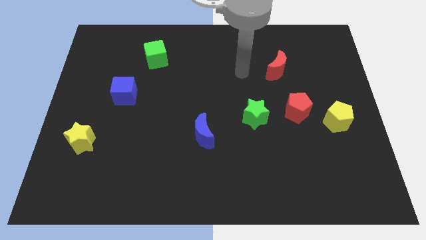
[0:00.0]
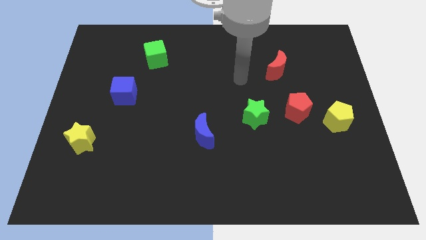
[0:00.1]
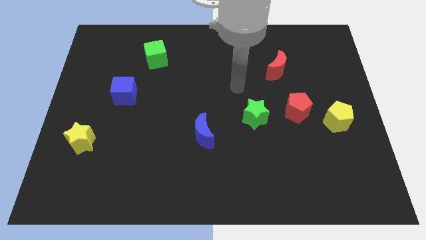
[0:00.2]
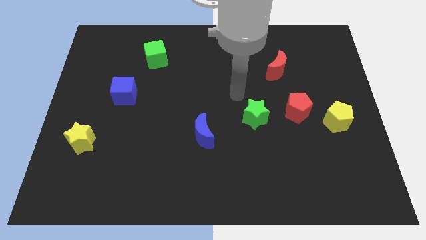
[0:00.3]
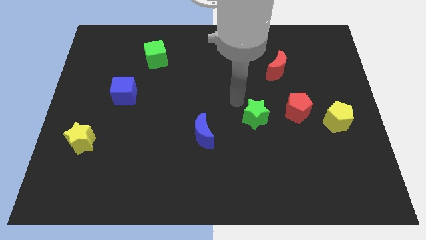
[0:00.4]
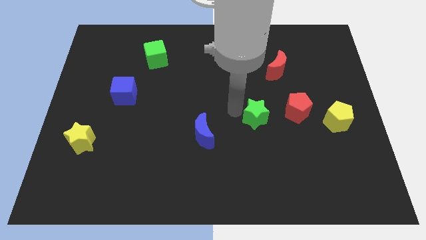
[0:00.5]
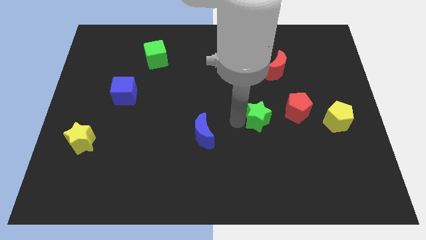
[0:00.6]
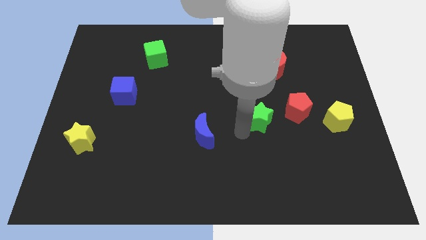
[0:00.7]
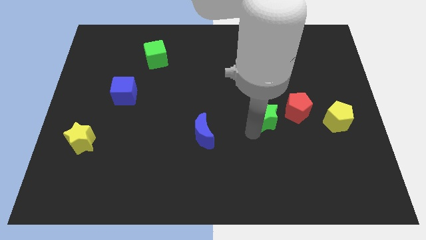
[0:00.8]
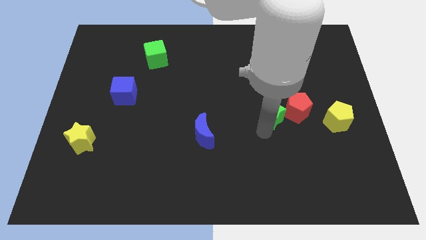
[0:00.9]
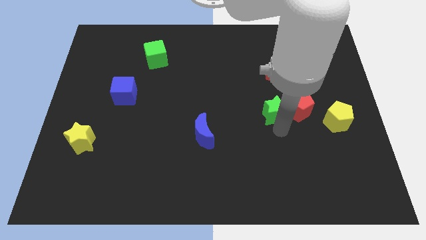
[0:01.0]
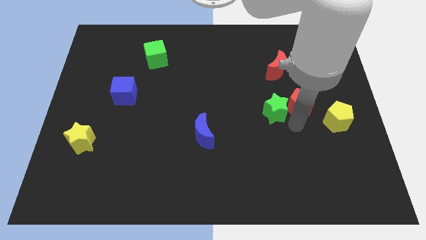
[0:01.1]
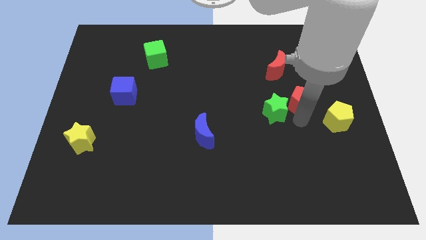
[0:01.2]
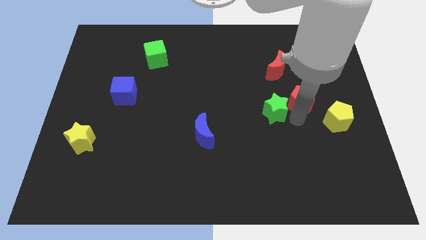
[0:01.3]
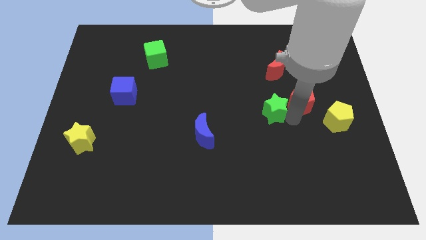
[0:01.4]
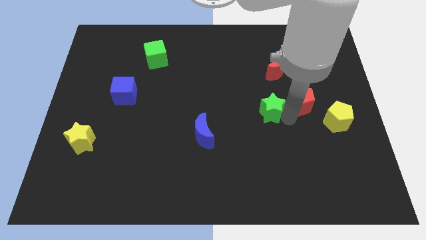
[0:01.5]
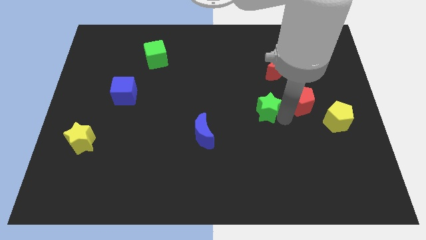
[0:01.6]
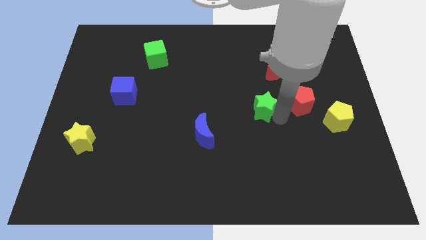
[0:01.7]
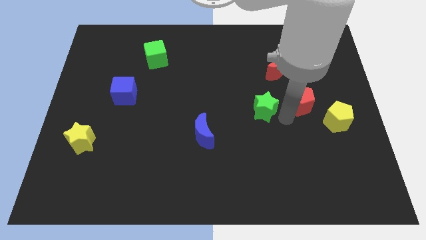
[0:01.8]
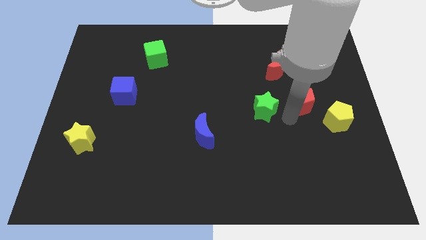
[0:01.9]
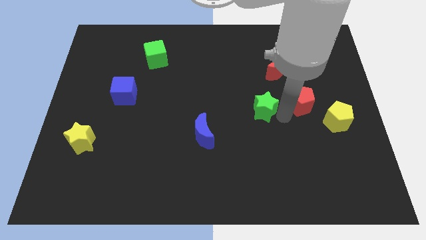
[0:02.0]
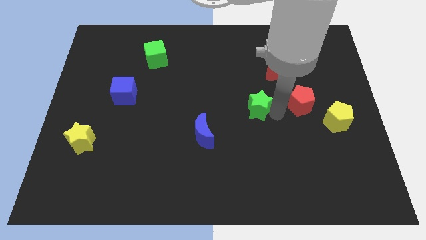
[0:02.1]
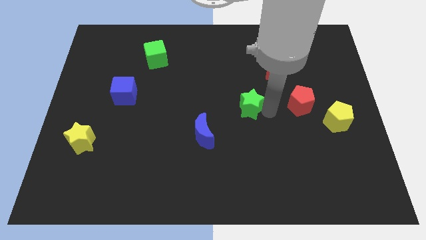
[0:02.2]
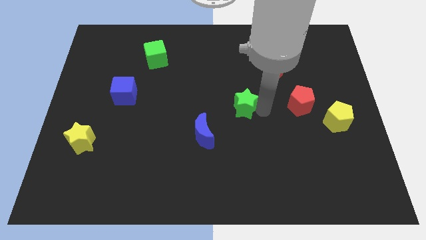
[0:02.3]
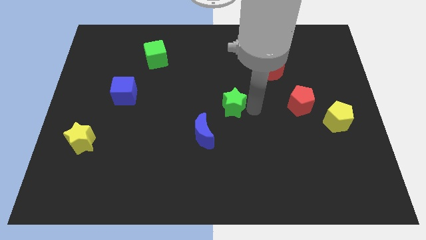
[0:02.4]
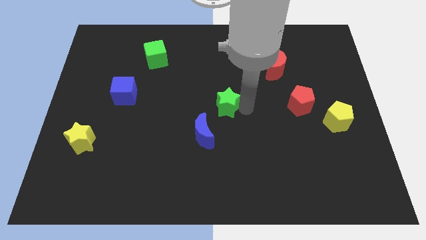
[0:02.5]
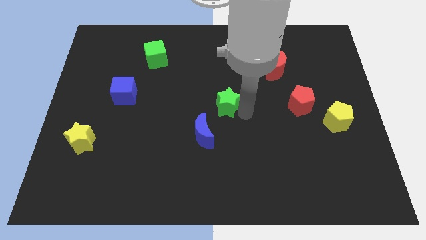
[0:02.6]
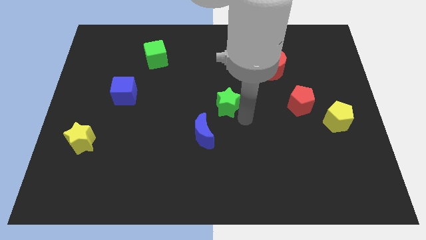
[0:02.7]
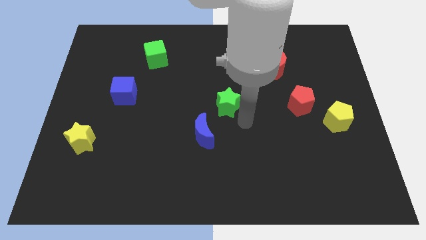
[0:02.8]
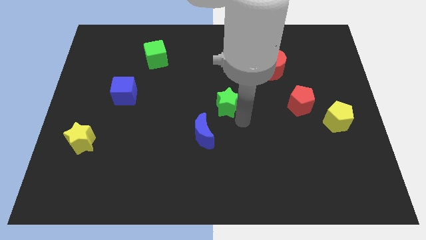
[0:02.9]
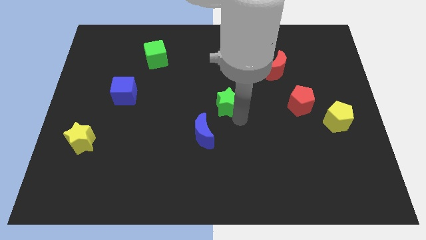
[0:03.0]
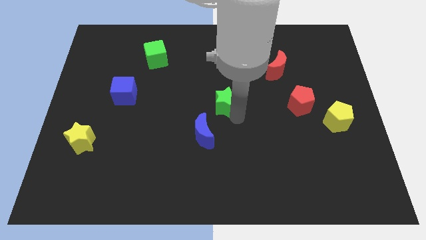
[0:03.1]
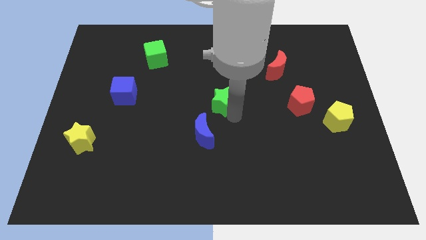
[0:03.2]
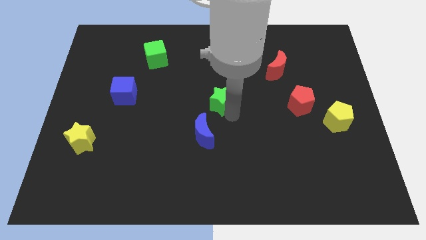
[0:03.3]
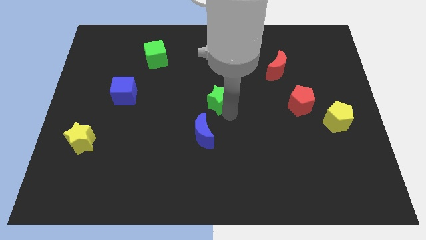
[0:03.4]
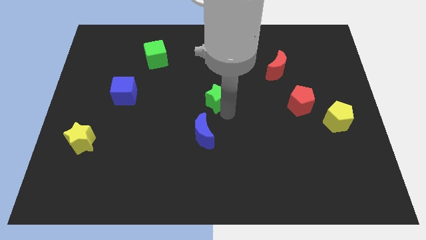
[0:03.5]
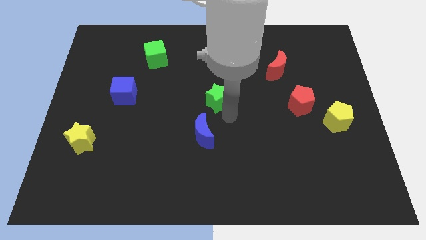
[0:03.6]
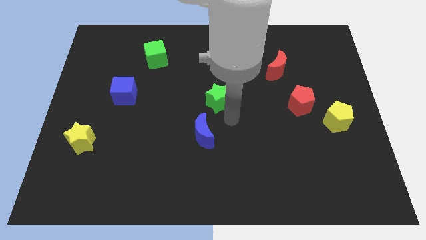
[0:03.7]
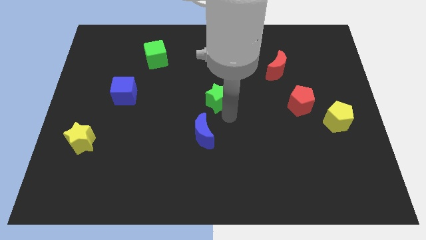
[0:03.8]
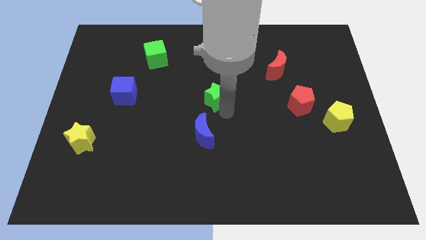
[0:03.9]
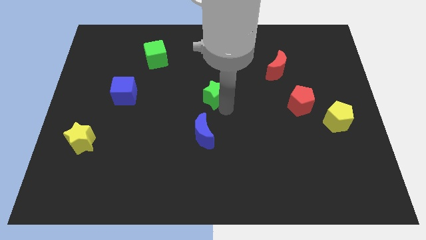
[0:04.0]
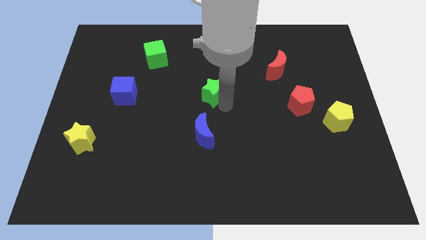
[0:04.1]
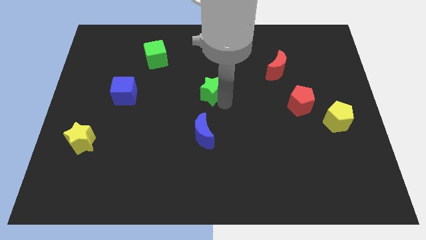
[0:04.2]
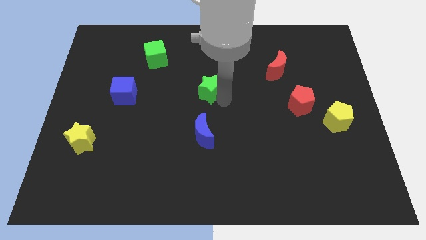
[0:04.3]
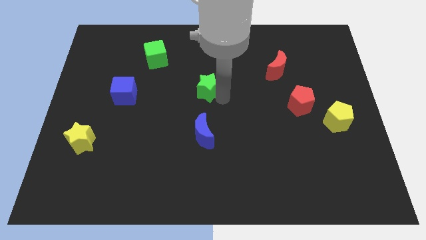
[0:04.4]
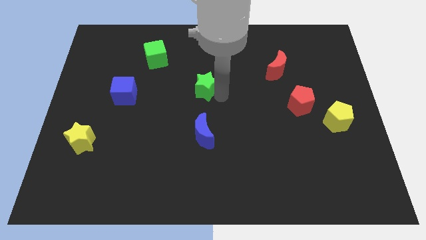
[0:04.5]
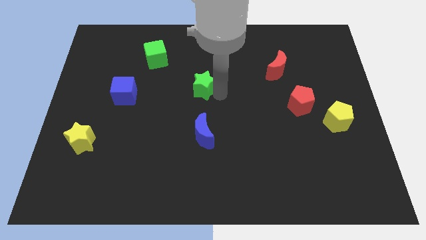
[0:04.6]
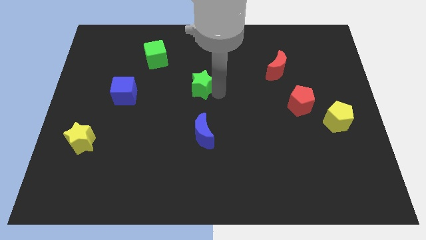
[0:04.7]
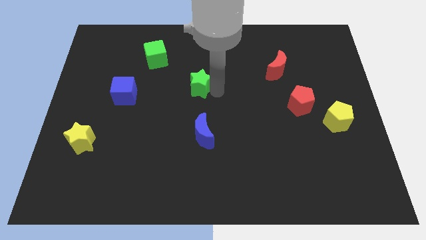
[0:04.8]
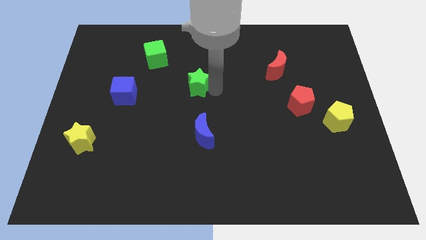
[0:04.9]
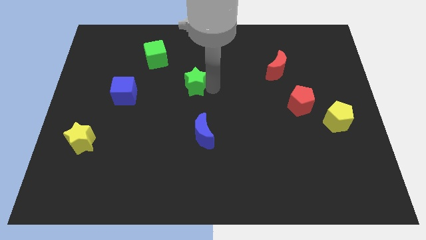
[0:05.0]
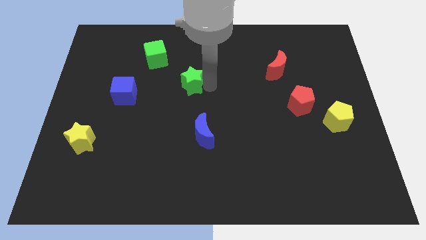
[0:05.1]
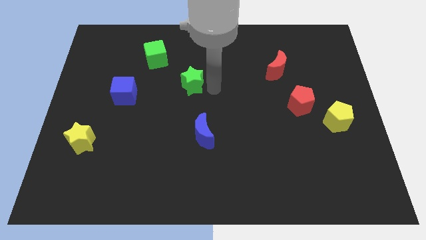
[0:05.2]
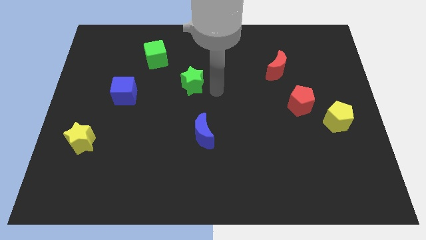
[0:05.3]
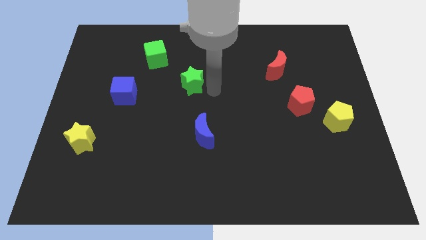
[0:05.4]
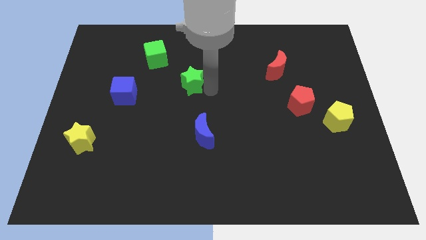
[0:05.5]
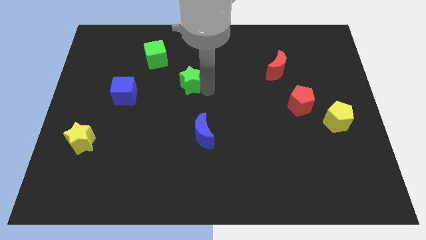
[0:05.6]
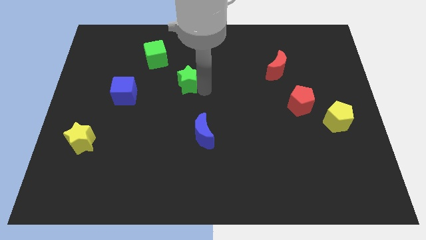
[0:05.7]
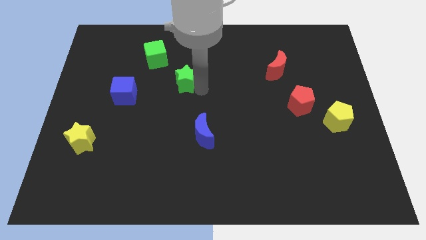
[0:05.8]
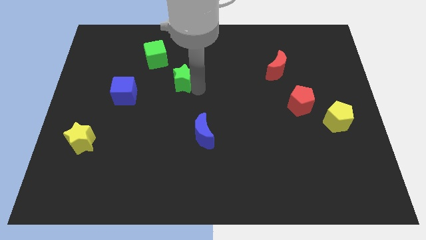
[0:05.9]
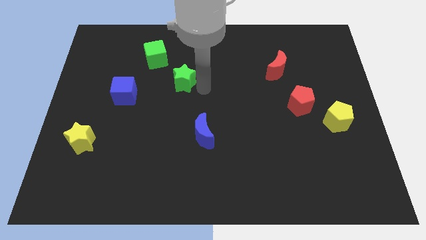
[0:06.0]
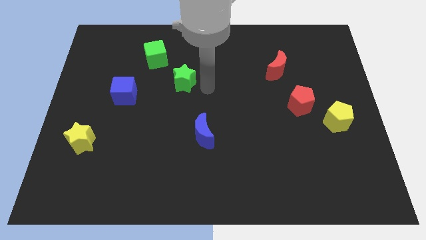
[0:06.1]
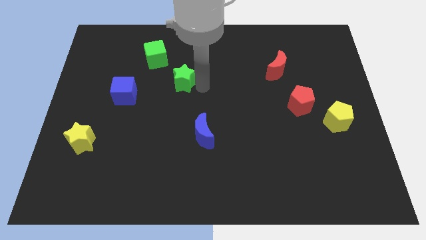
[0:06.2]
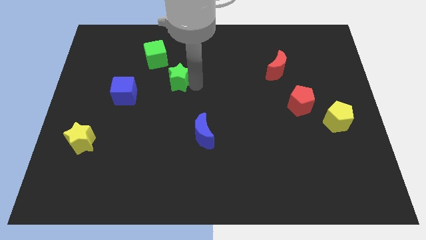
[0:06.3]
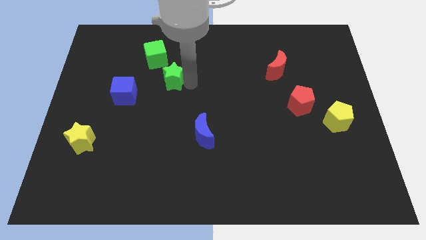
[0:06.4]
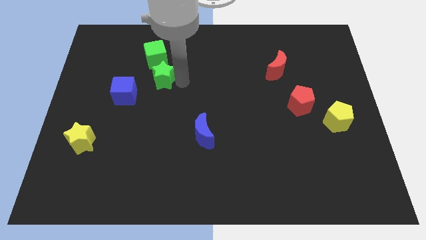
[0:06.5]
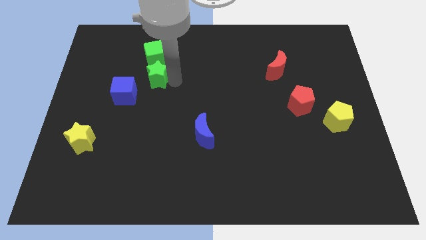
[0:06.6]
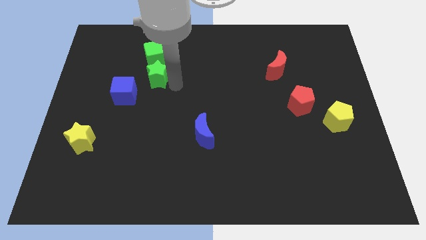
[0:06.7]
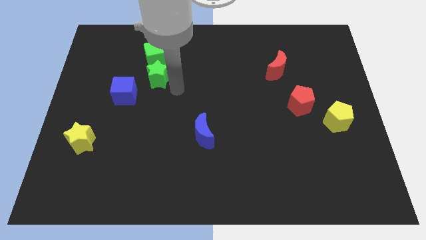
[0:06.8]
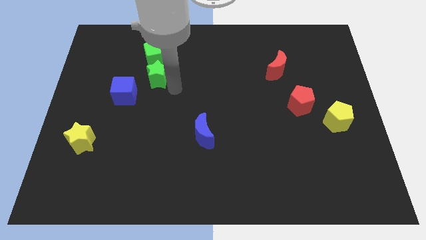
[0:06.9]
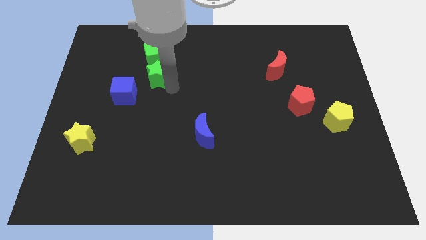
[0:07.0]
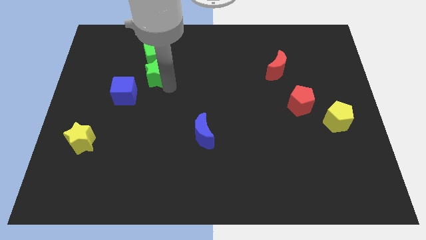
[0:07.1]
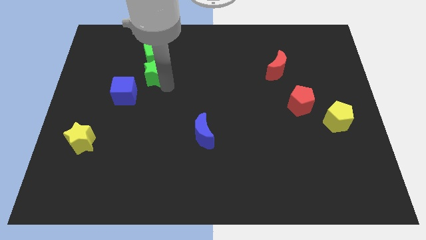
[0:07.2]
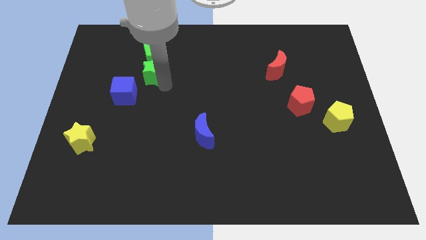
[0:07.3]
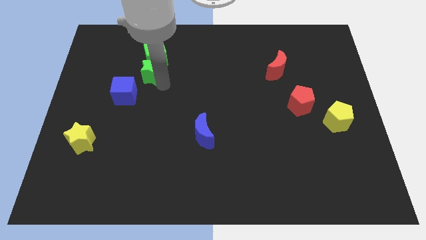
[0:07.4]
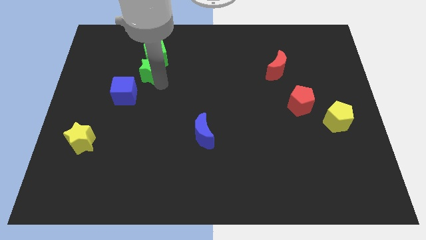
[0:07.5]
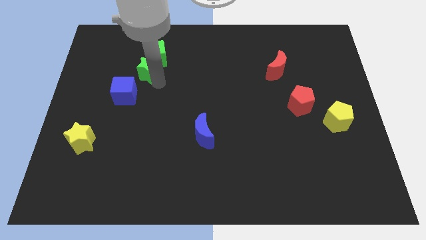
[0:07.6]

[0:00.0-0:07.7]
move the green star to the top of the blue cube

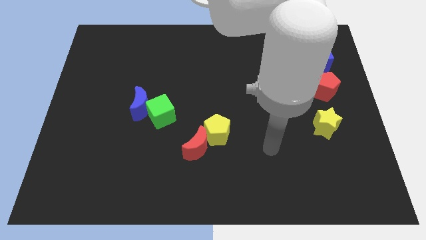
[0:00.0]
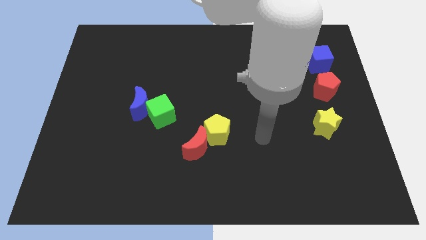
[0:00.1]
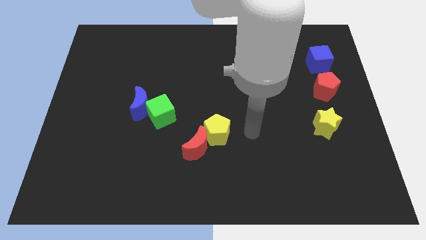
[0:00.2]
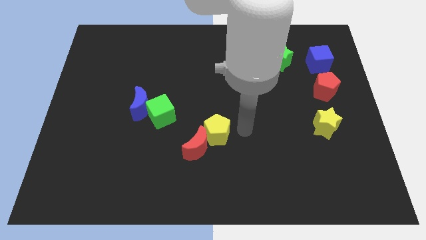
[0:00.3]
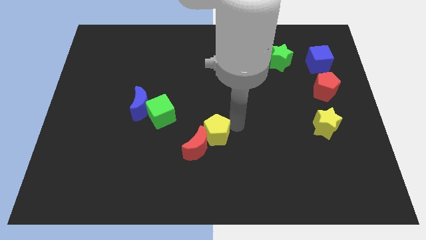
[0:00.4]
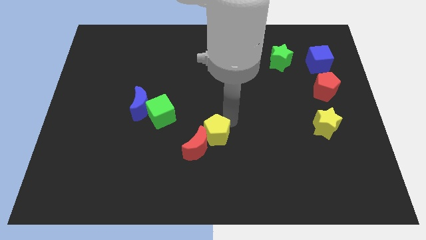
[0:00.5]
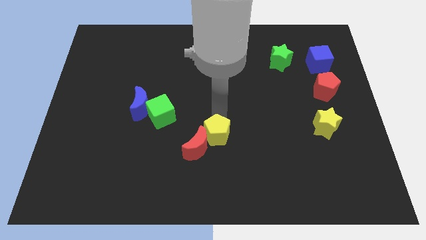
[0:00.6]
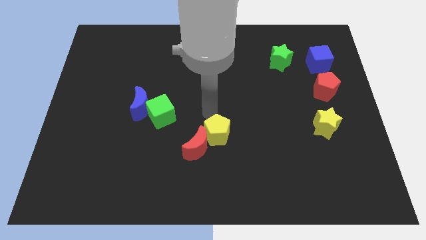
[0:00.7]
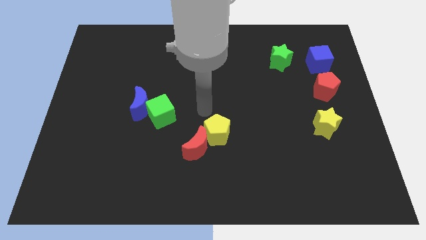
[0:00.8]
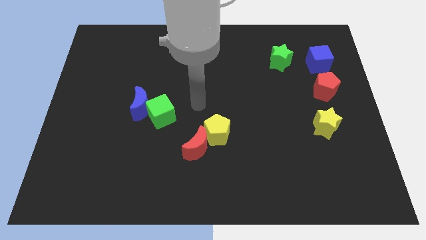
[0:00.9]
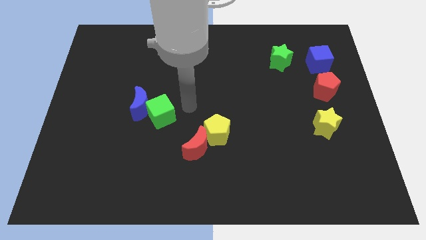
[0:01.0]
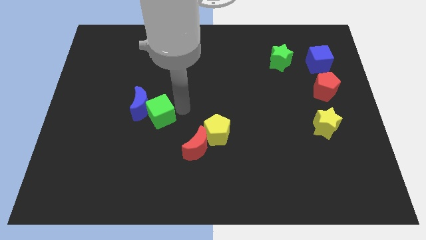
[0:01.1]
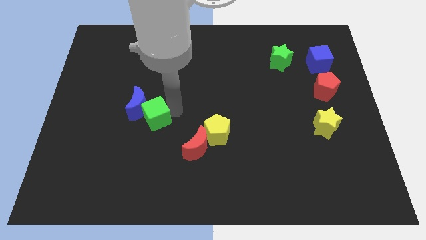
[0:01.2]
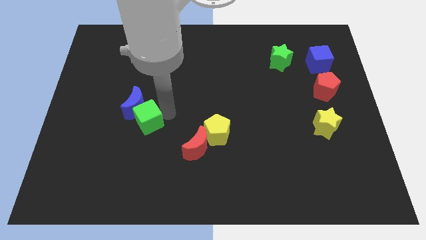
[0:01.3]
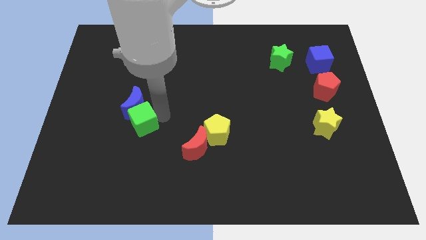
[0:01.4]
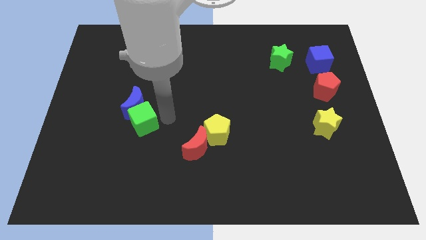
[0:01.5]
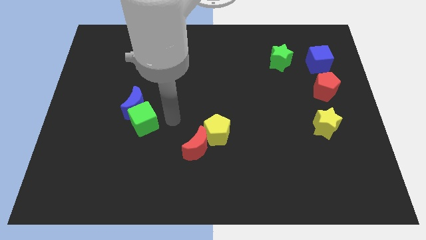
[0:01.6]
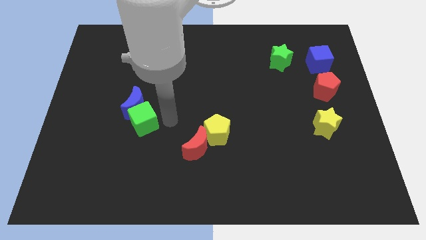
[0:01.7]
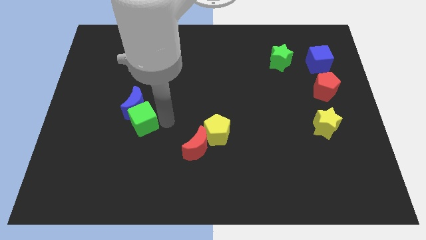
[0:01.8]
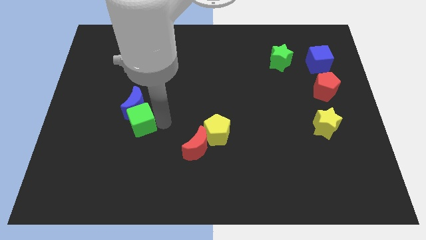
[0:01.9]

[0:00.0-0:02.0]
move the green cube to the bottom left side of the blue moon
